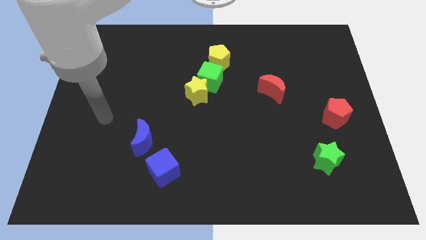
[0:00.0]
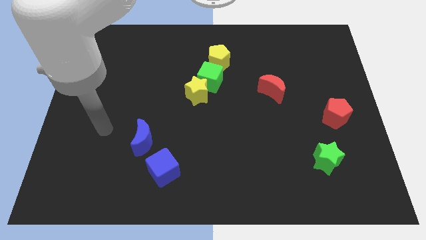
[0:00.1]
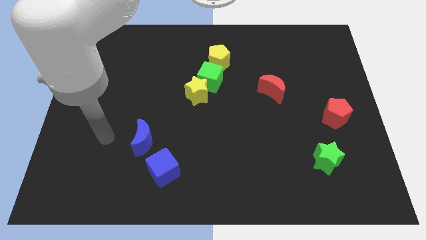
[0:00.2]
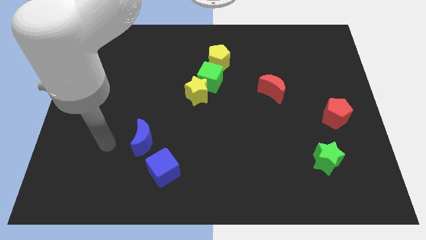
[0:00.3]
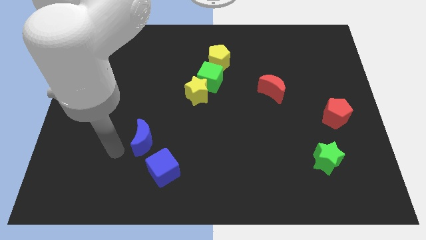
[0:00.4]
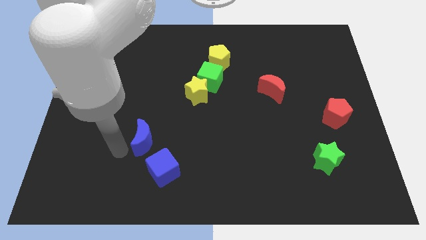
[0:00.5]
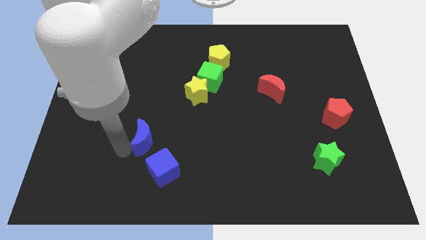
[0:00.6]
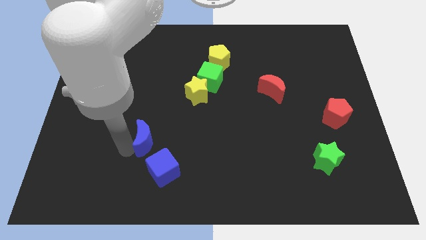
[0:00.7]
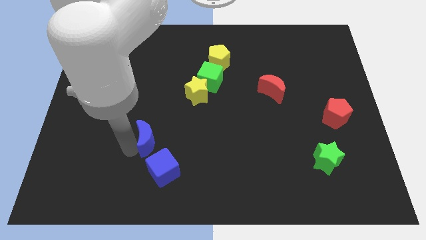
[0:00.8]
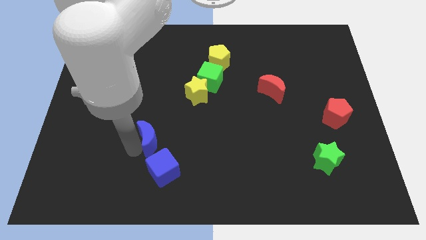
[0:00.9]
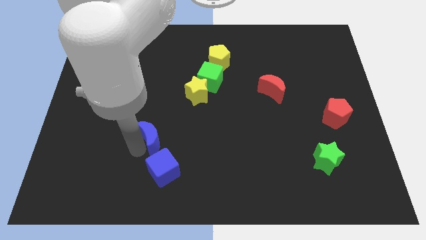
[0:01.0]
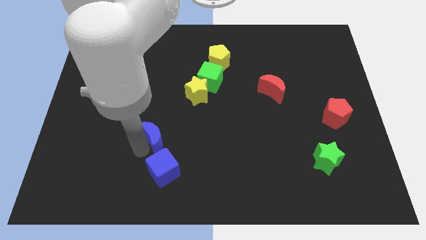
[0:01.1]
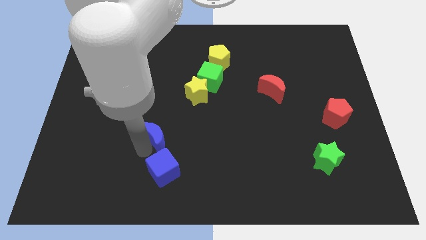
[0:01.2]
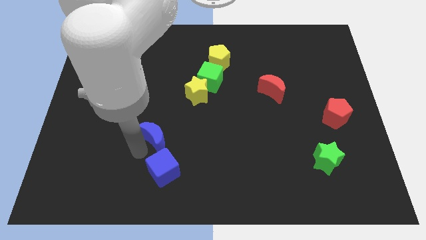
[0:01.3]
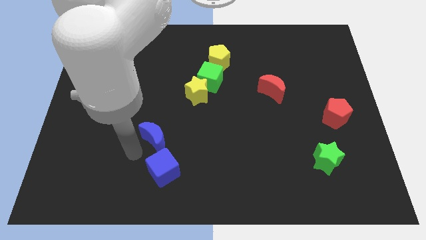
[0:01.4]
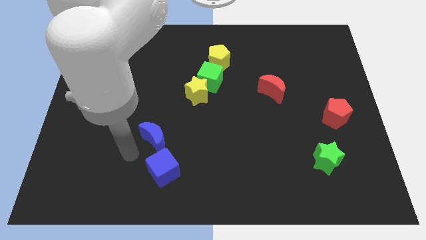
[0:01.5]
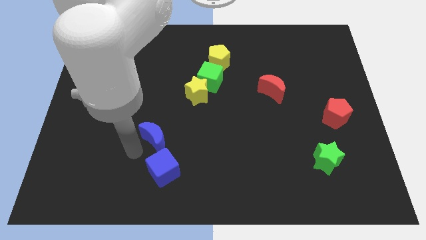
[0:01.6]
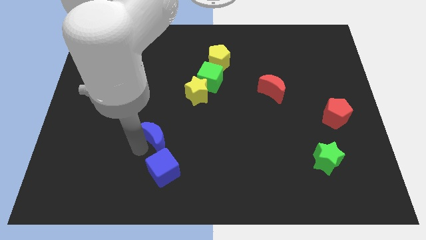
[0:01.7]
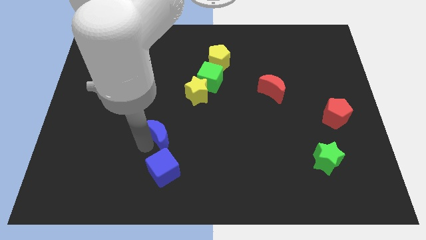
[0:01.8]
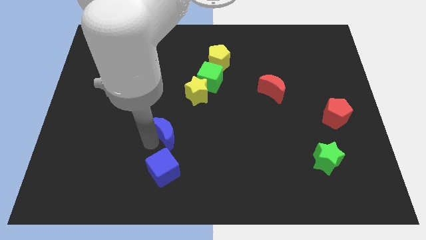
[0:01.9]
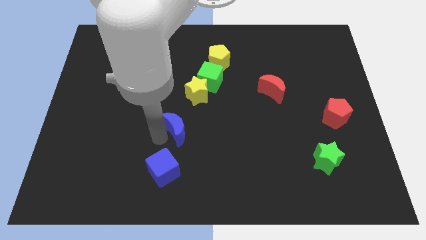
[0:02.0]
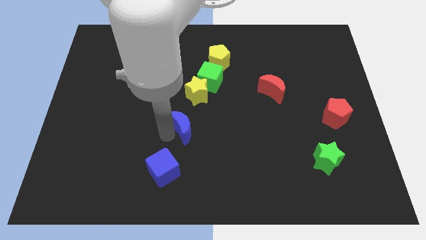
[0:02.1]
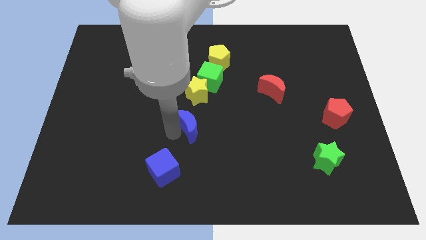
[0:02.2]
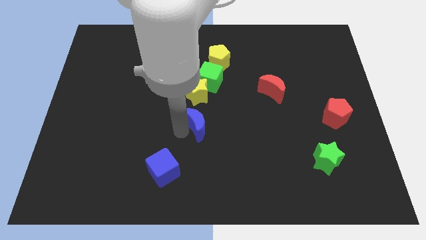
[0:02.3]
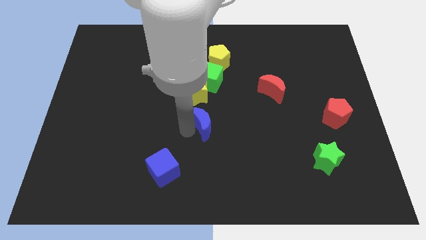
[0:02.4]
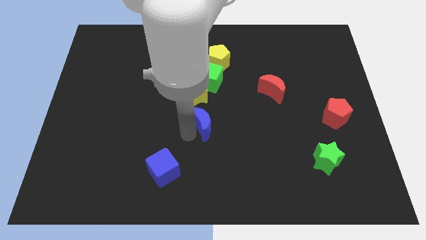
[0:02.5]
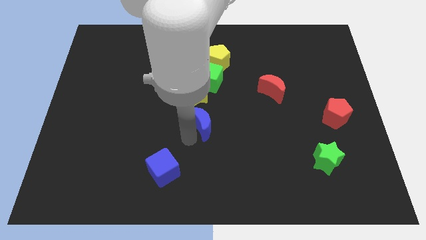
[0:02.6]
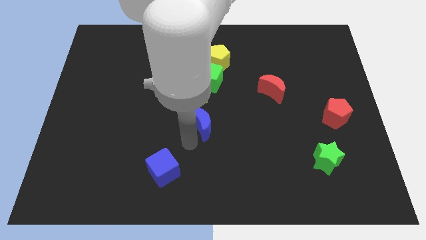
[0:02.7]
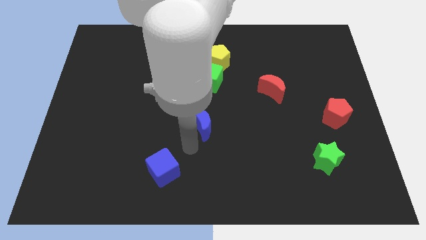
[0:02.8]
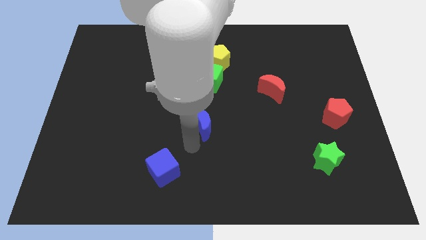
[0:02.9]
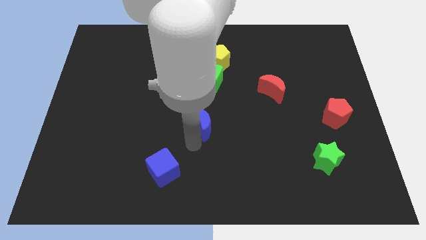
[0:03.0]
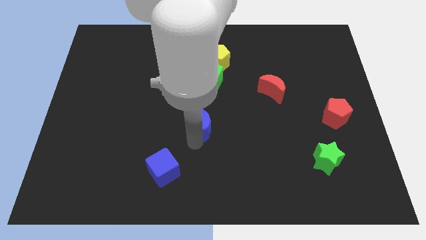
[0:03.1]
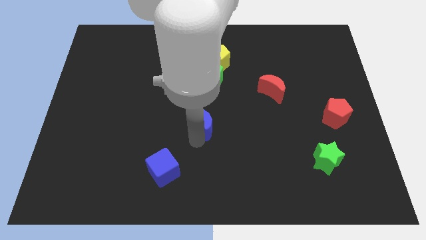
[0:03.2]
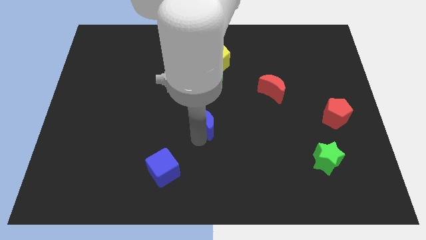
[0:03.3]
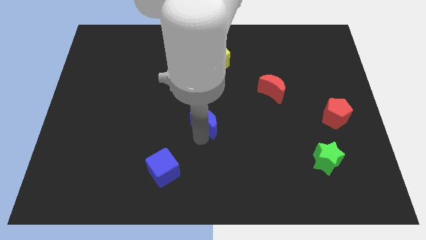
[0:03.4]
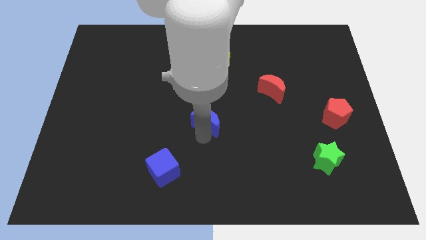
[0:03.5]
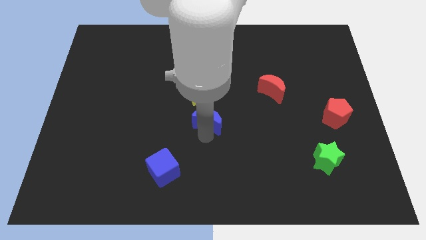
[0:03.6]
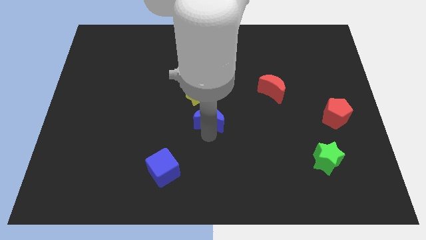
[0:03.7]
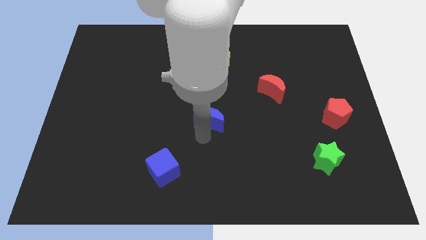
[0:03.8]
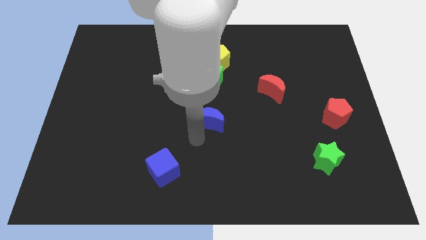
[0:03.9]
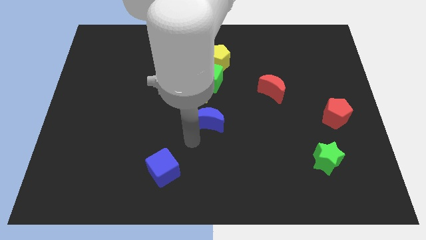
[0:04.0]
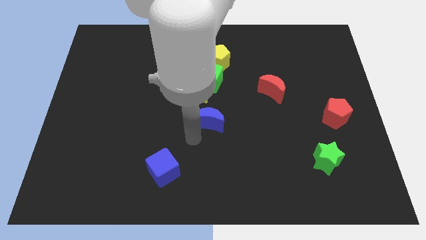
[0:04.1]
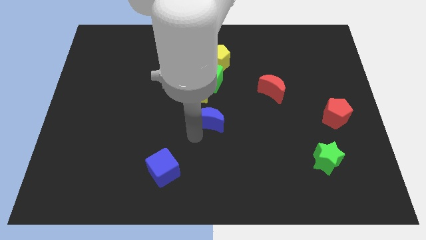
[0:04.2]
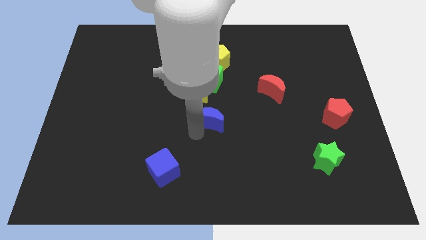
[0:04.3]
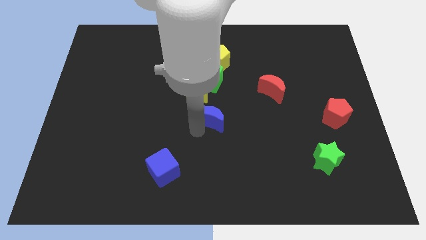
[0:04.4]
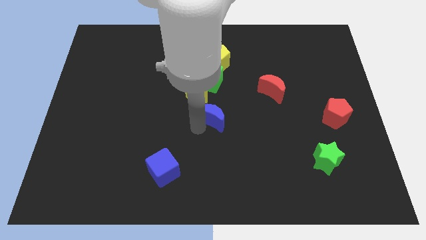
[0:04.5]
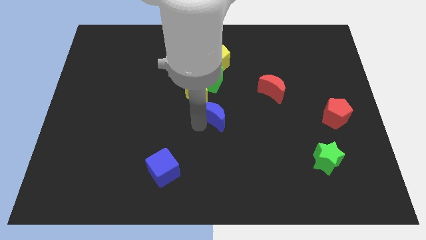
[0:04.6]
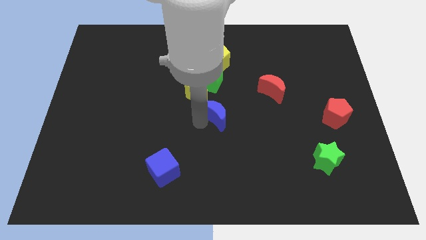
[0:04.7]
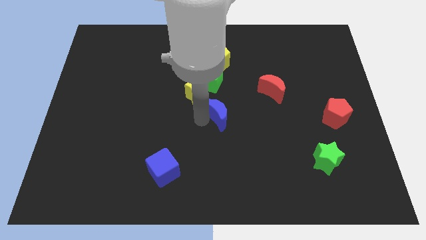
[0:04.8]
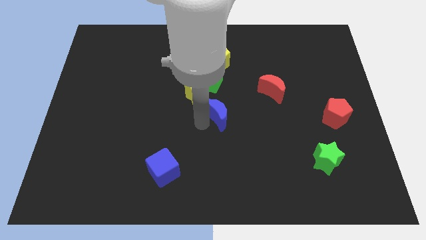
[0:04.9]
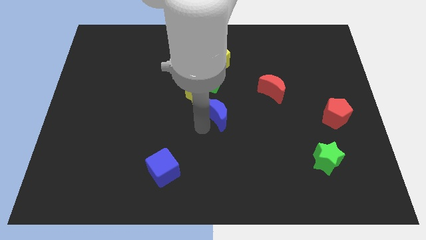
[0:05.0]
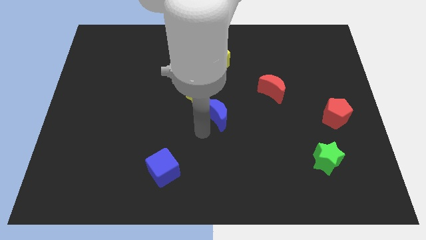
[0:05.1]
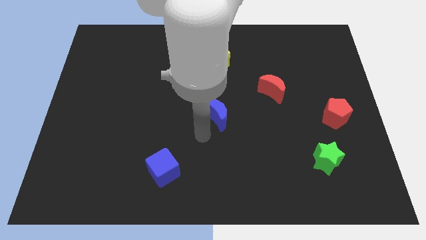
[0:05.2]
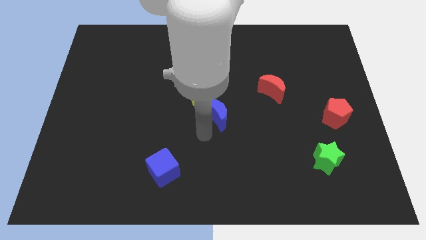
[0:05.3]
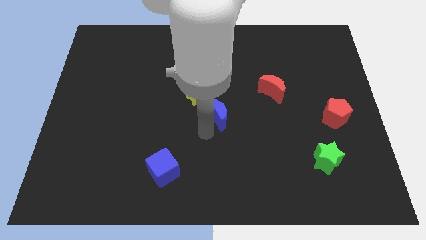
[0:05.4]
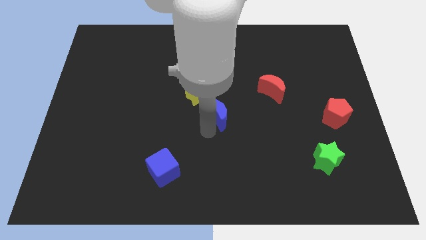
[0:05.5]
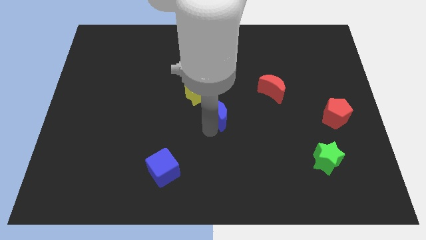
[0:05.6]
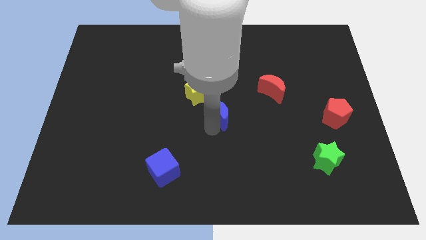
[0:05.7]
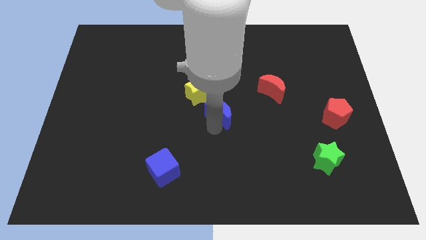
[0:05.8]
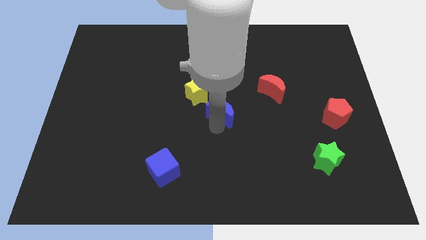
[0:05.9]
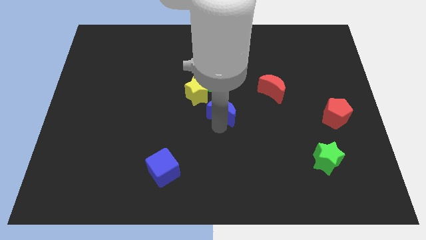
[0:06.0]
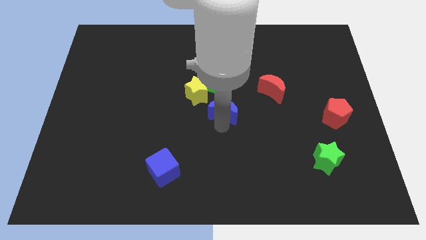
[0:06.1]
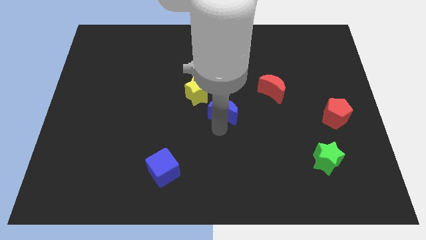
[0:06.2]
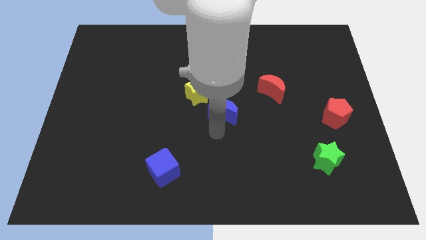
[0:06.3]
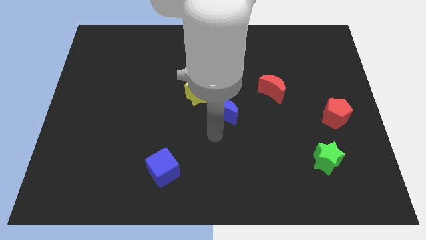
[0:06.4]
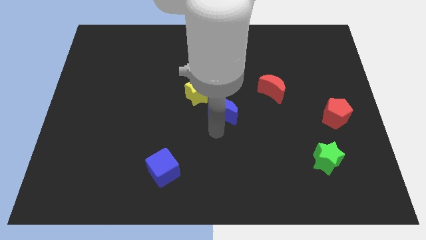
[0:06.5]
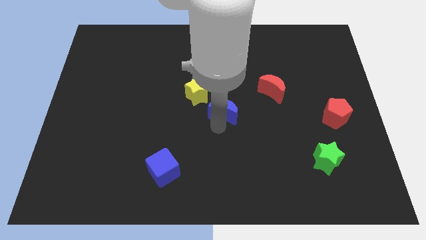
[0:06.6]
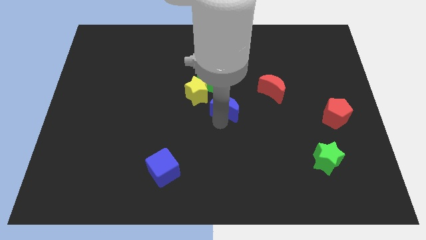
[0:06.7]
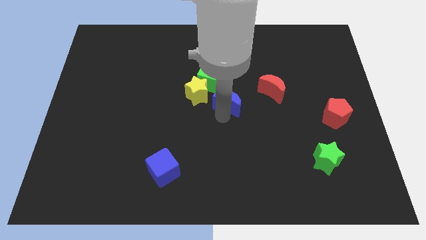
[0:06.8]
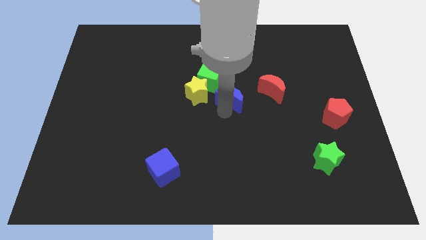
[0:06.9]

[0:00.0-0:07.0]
slide the blue moon upwards and to the right diagonally

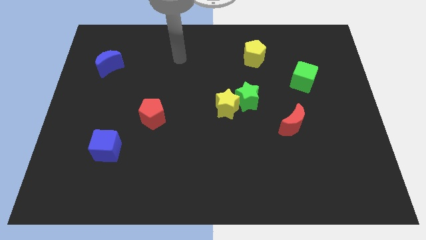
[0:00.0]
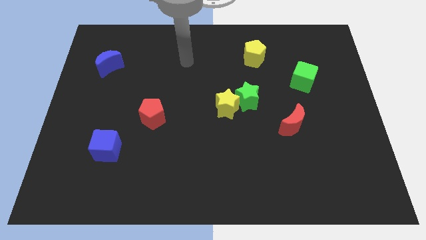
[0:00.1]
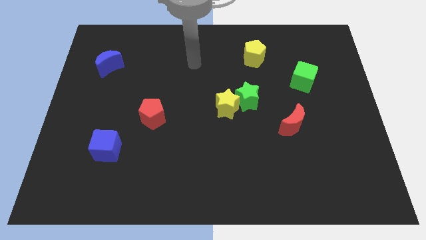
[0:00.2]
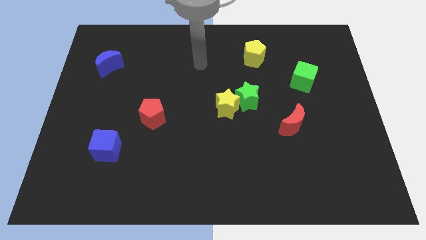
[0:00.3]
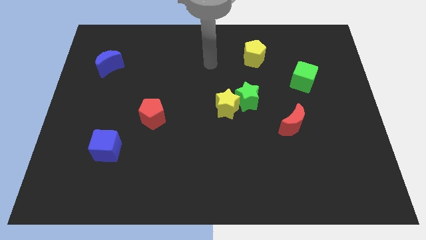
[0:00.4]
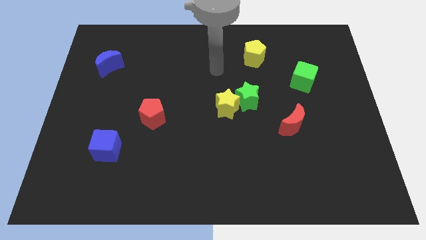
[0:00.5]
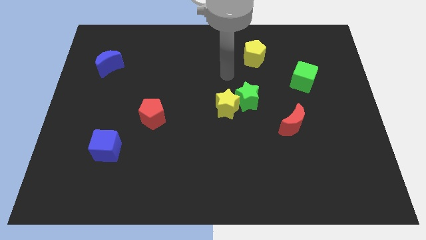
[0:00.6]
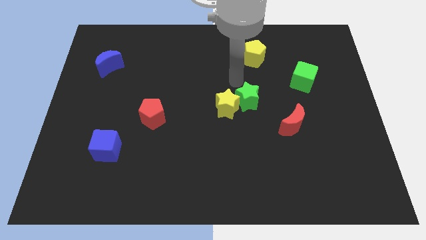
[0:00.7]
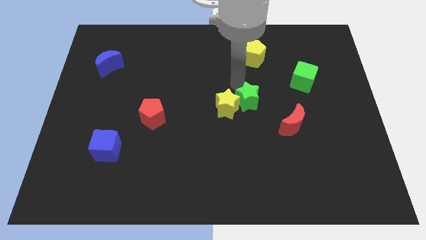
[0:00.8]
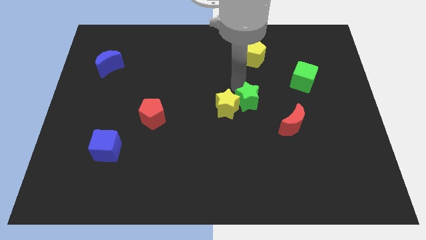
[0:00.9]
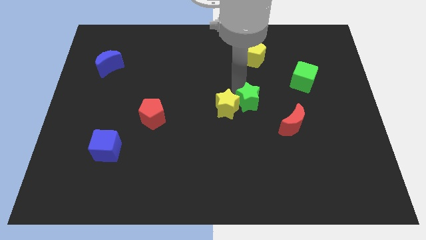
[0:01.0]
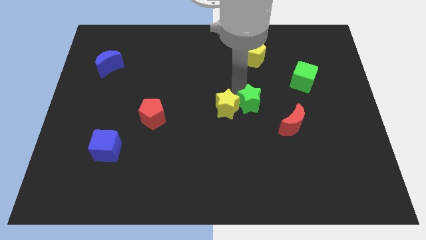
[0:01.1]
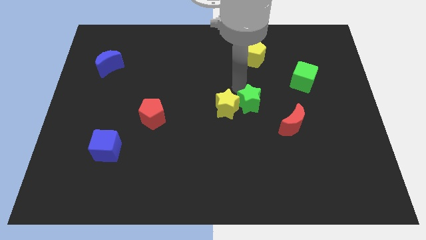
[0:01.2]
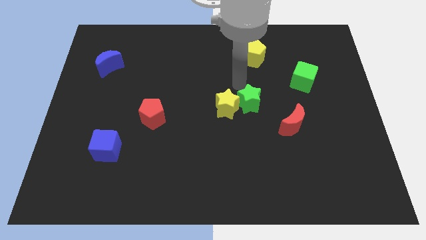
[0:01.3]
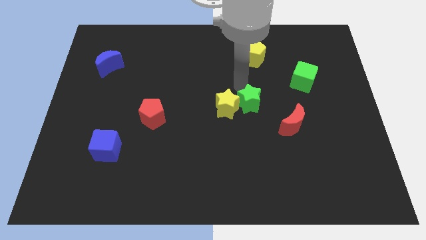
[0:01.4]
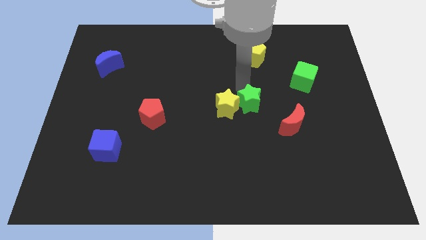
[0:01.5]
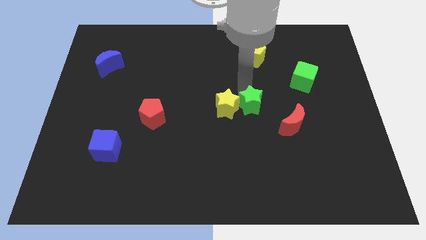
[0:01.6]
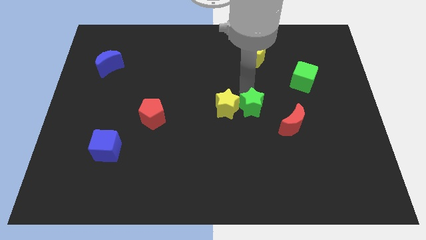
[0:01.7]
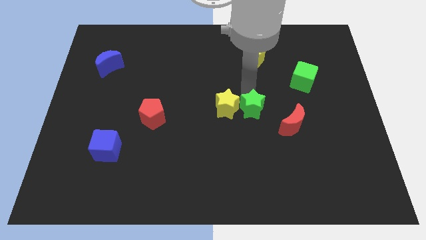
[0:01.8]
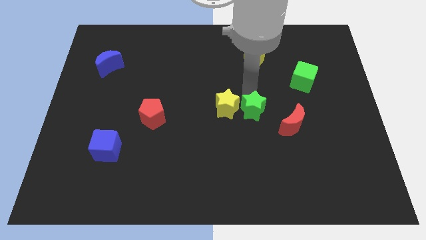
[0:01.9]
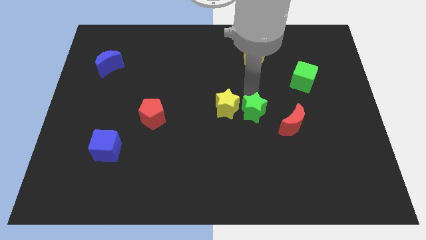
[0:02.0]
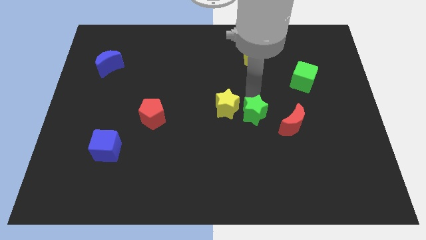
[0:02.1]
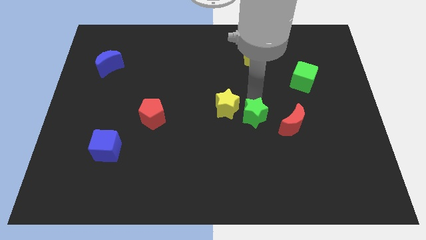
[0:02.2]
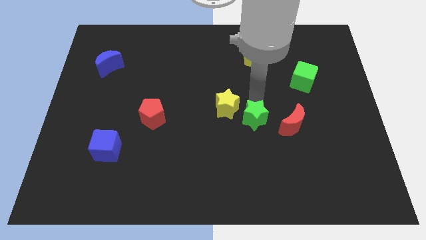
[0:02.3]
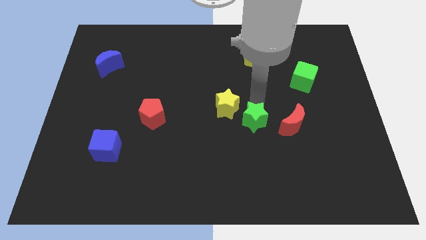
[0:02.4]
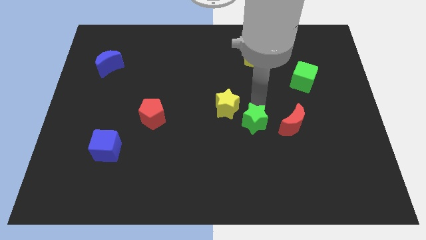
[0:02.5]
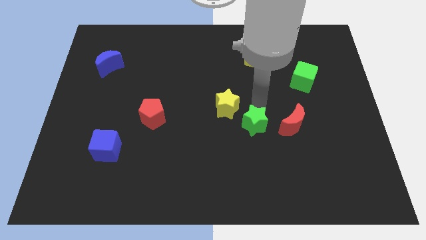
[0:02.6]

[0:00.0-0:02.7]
slightly push the green star down
